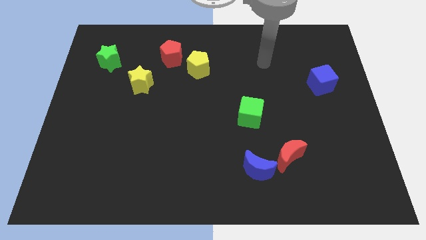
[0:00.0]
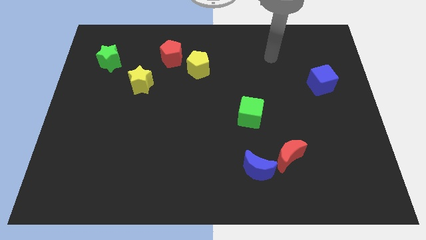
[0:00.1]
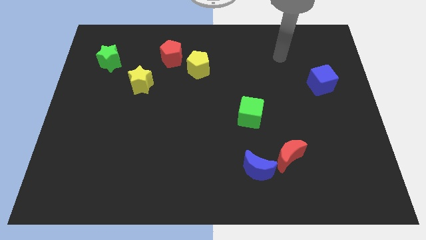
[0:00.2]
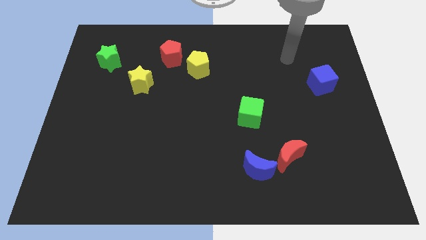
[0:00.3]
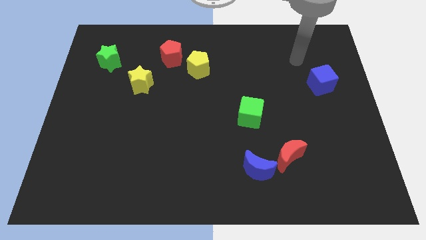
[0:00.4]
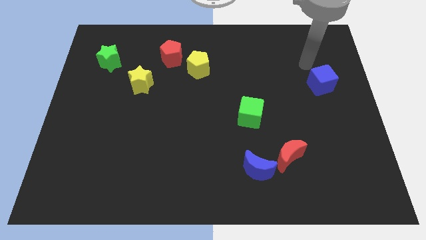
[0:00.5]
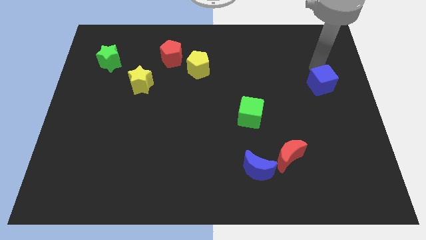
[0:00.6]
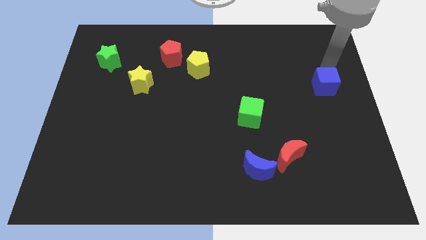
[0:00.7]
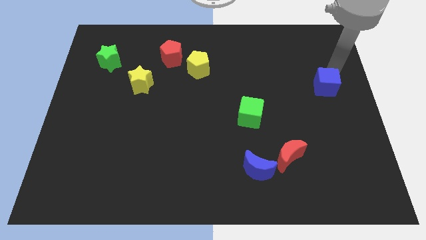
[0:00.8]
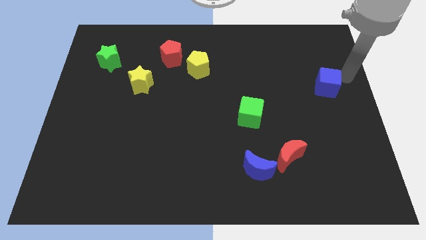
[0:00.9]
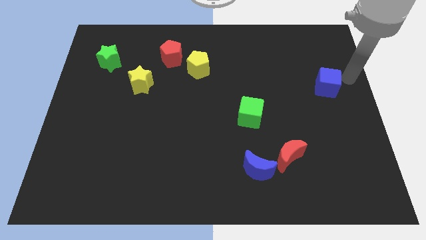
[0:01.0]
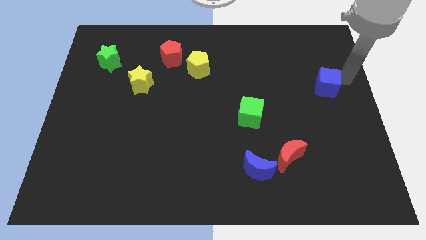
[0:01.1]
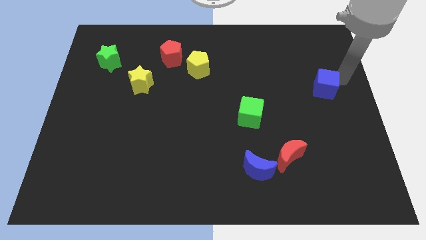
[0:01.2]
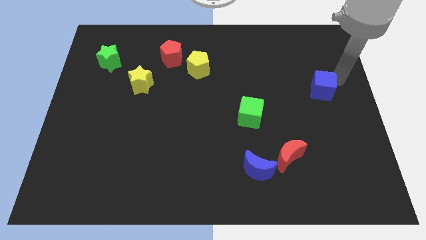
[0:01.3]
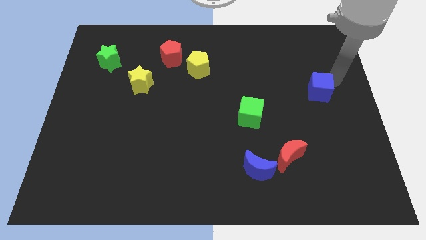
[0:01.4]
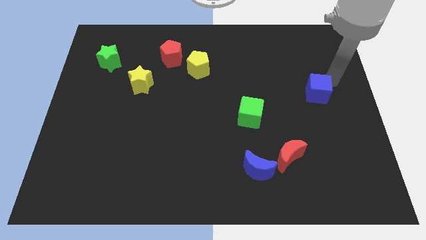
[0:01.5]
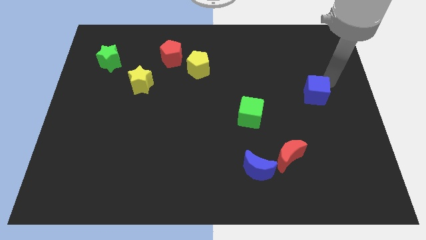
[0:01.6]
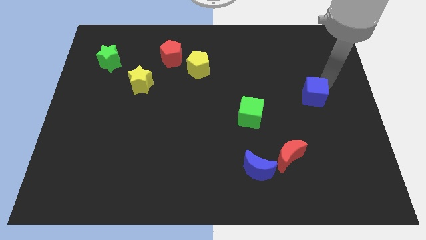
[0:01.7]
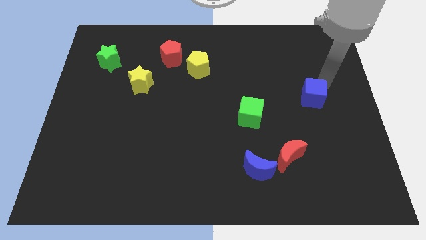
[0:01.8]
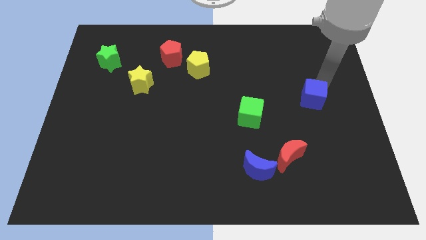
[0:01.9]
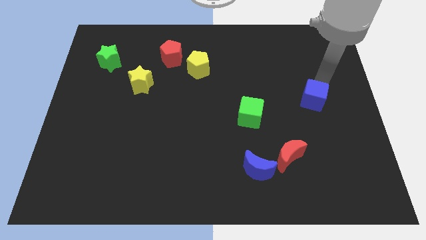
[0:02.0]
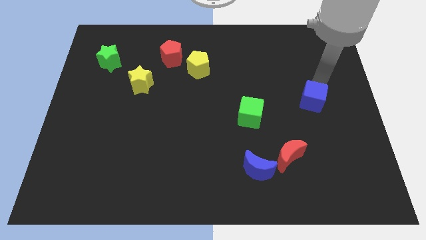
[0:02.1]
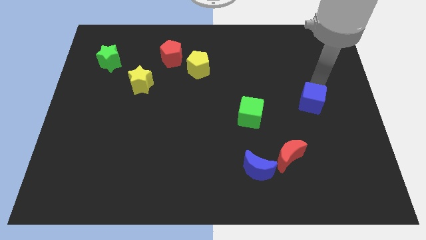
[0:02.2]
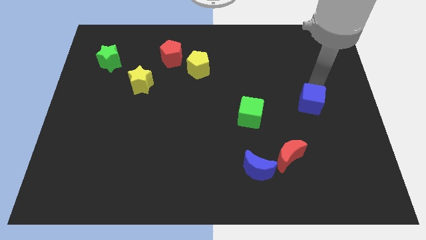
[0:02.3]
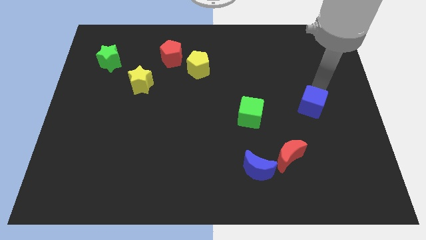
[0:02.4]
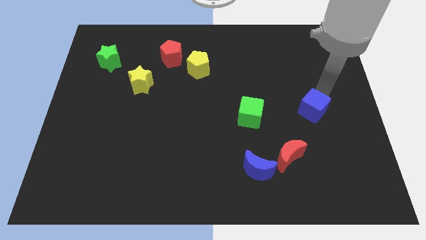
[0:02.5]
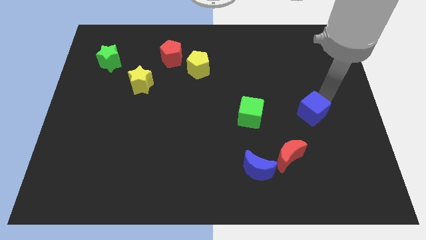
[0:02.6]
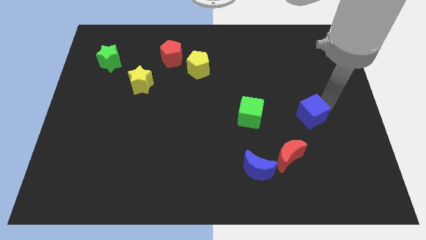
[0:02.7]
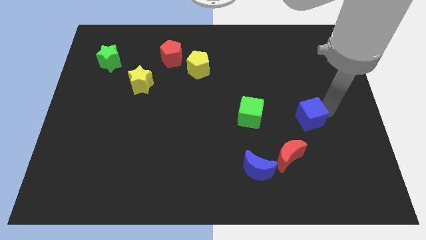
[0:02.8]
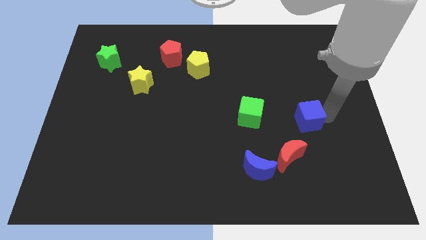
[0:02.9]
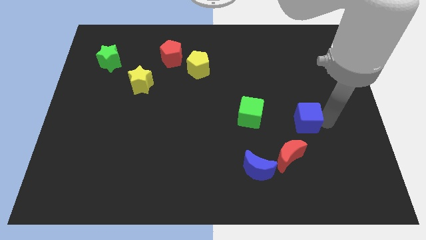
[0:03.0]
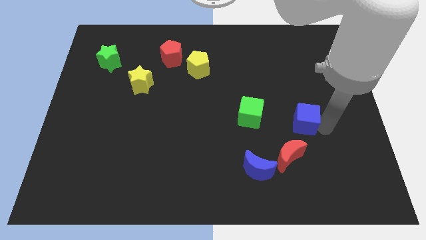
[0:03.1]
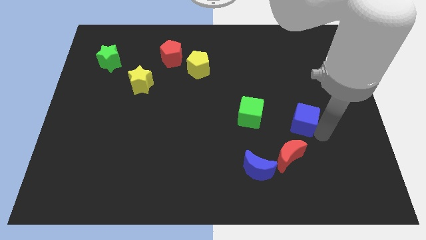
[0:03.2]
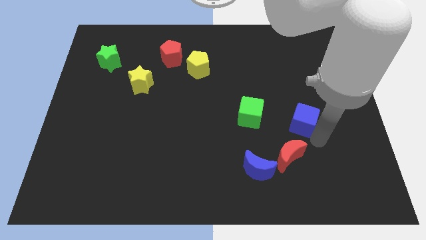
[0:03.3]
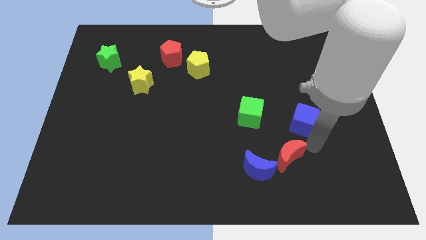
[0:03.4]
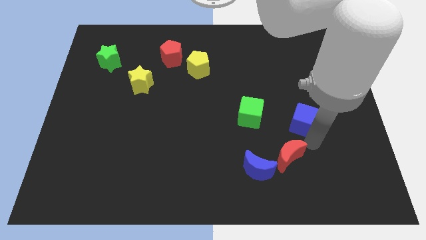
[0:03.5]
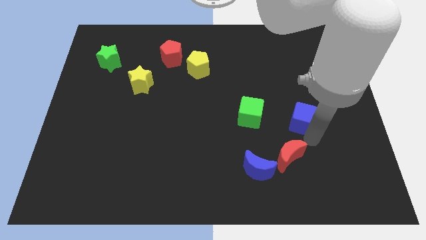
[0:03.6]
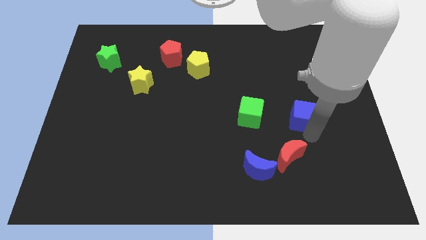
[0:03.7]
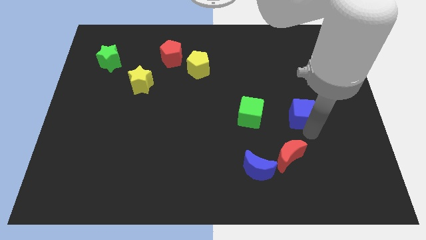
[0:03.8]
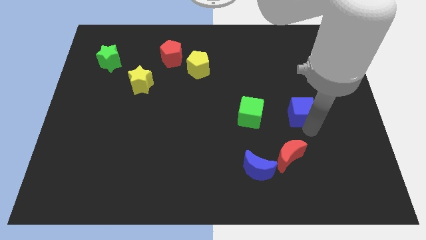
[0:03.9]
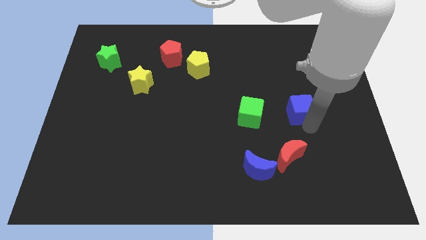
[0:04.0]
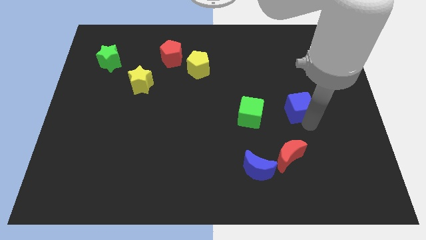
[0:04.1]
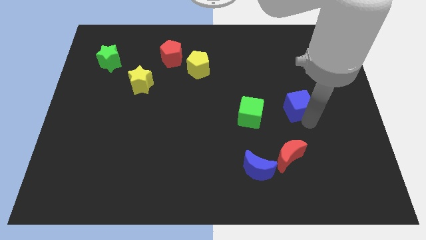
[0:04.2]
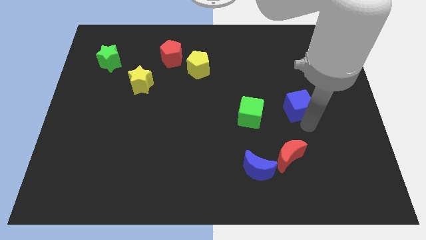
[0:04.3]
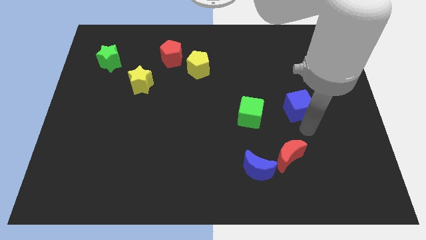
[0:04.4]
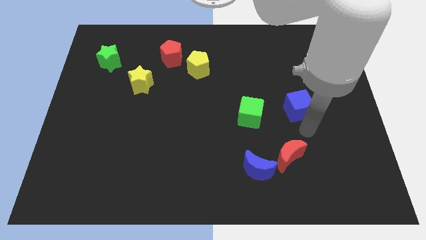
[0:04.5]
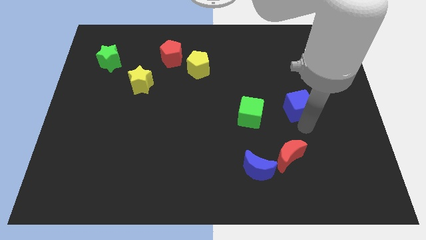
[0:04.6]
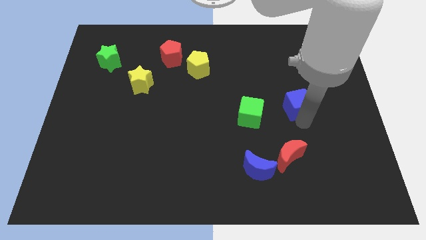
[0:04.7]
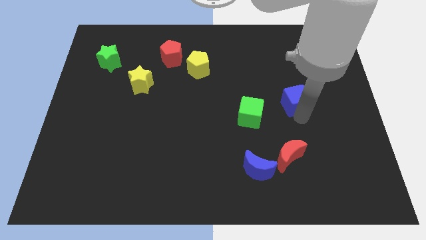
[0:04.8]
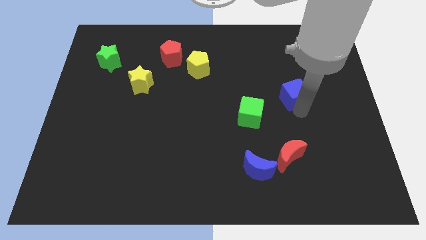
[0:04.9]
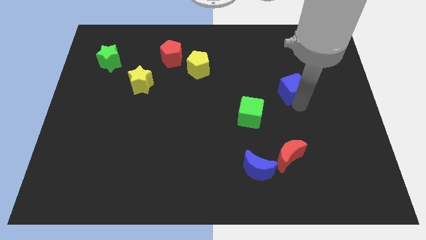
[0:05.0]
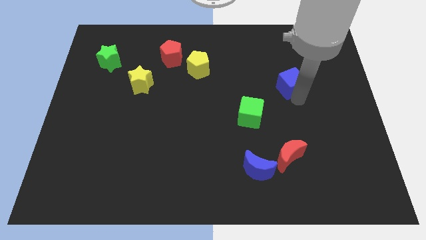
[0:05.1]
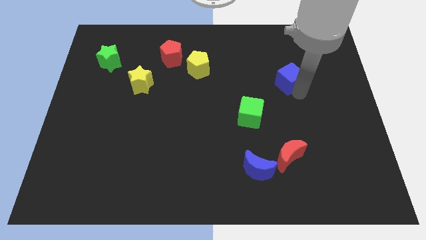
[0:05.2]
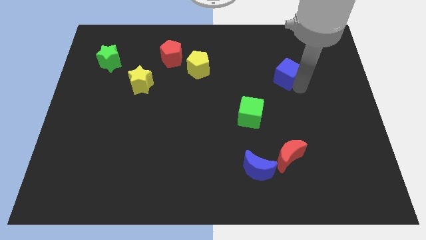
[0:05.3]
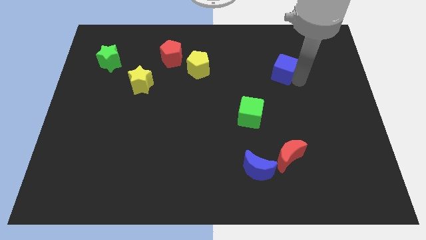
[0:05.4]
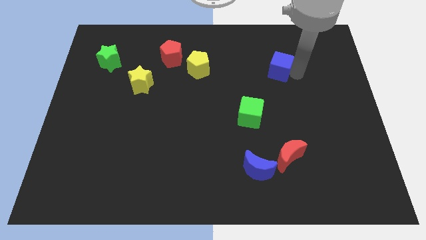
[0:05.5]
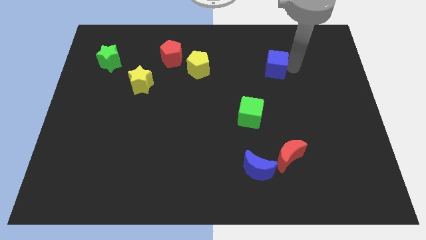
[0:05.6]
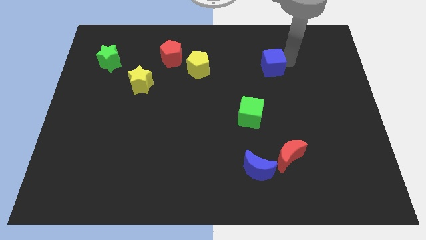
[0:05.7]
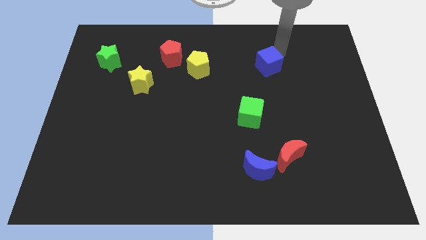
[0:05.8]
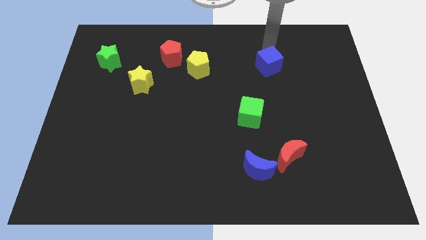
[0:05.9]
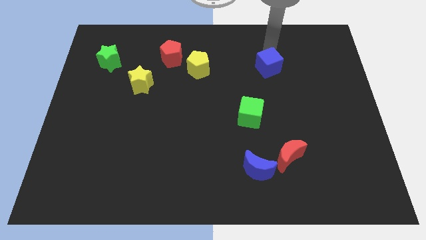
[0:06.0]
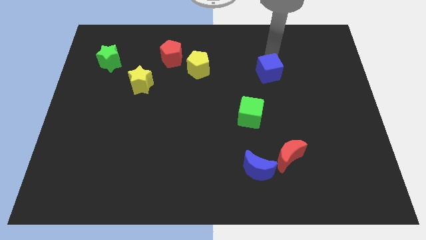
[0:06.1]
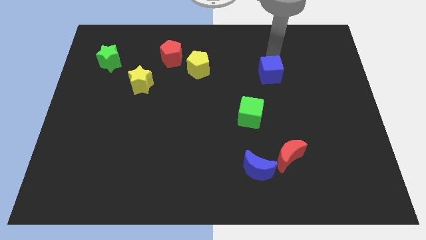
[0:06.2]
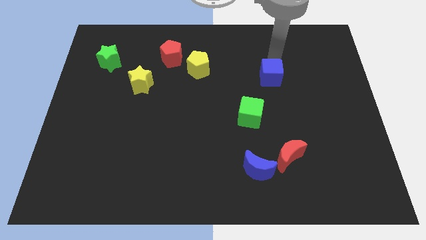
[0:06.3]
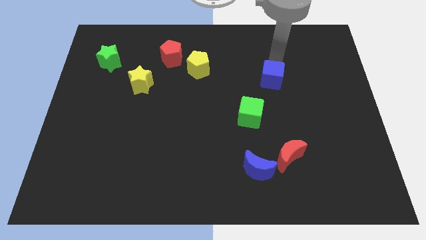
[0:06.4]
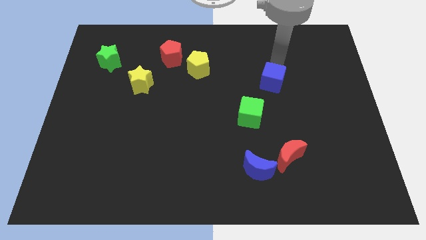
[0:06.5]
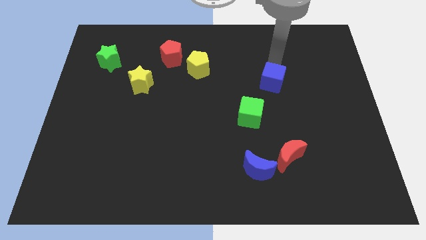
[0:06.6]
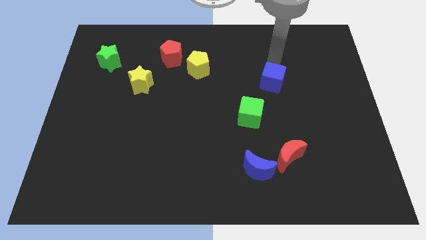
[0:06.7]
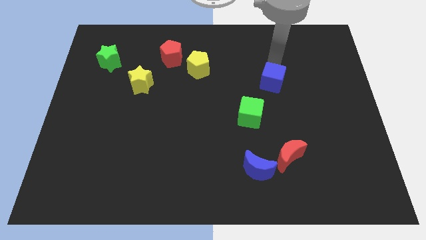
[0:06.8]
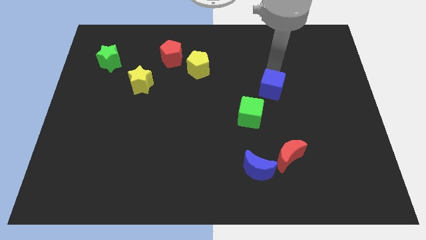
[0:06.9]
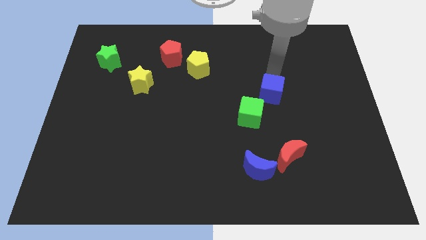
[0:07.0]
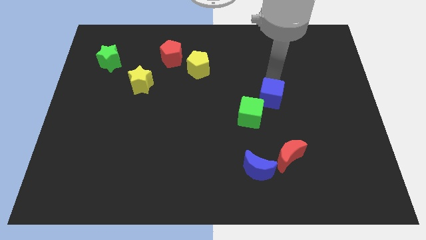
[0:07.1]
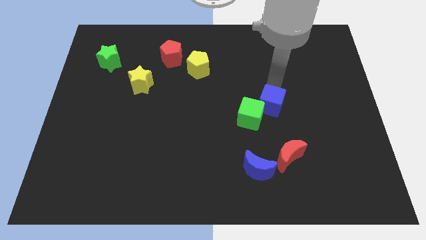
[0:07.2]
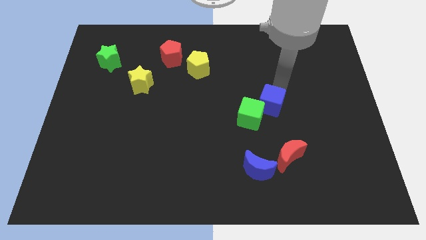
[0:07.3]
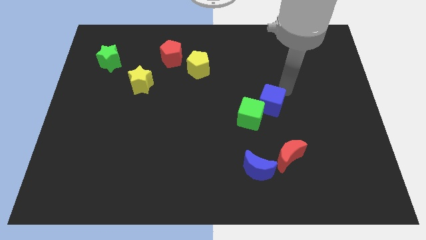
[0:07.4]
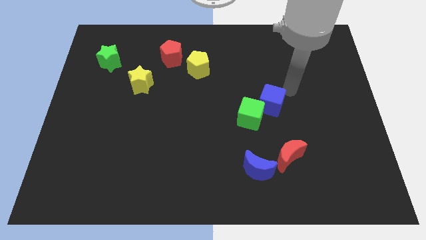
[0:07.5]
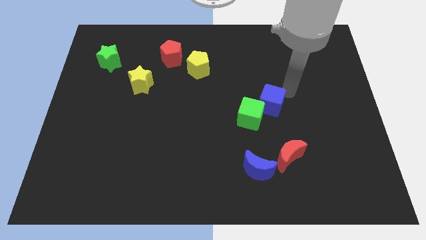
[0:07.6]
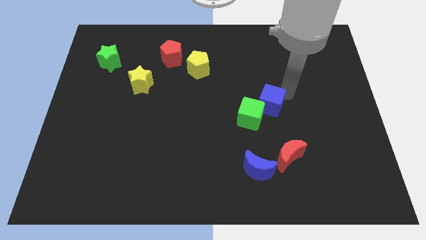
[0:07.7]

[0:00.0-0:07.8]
move the blue cube next to the green cube
